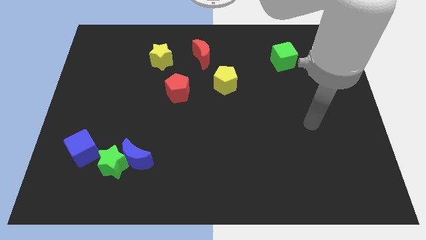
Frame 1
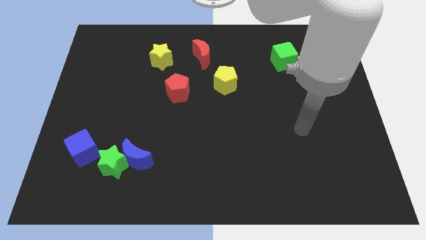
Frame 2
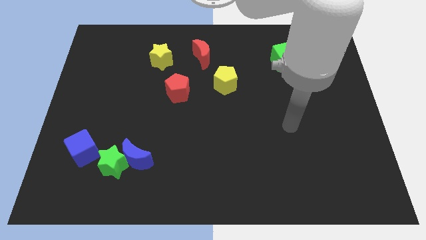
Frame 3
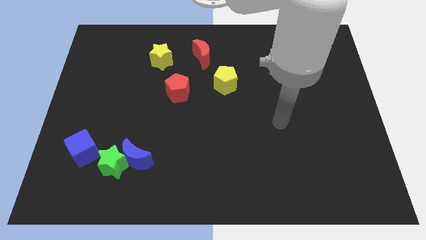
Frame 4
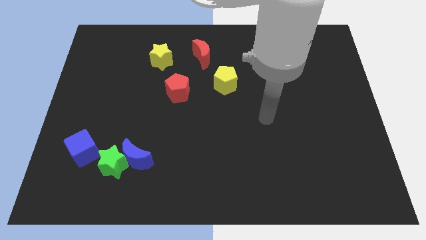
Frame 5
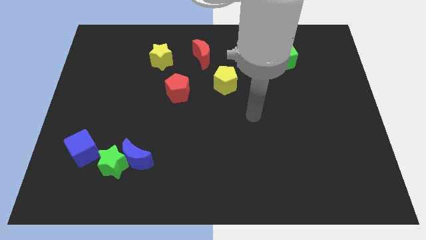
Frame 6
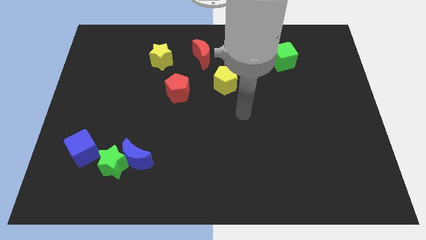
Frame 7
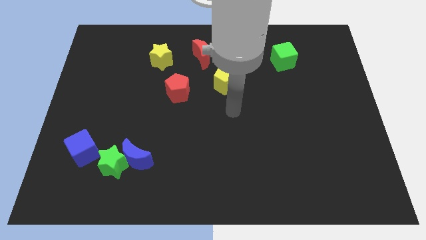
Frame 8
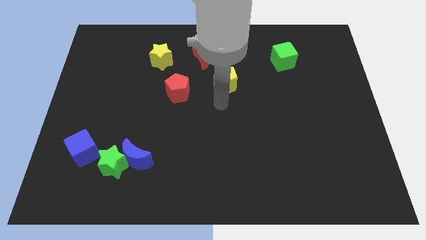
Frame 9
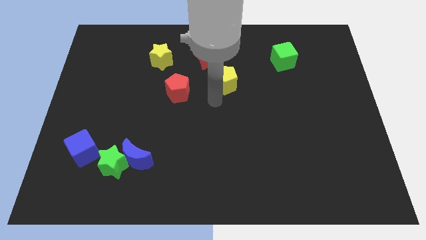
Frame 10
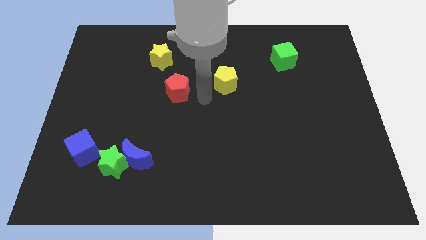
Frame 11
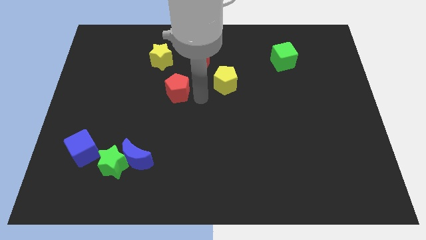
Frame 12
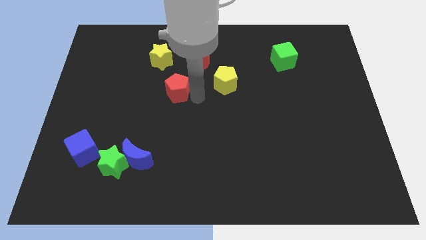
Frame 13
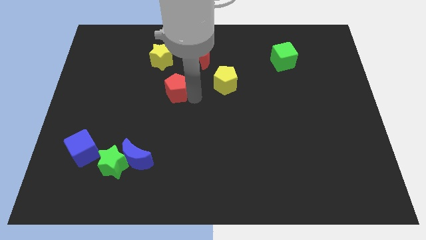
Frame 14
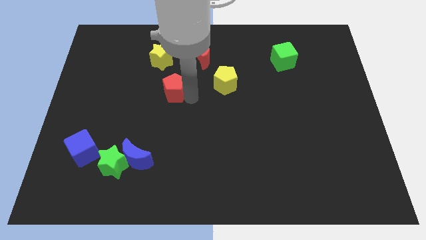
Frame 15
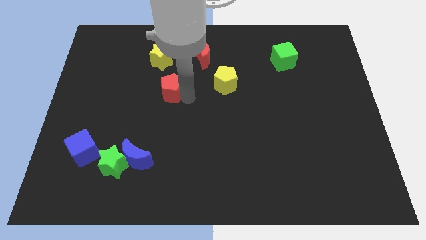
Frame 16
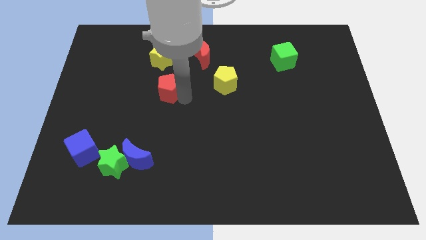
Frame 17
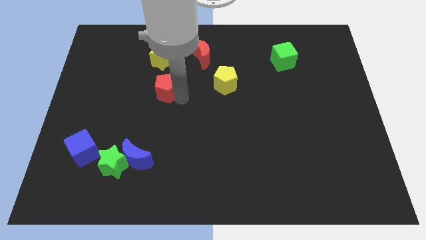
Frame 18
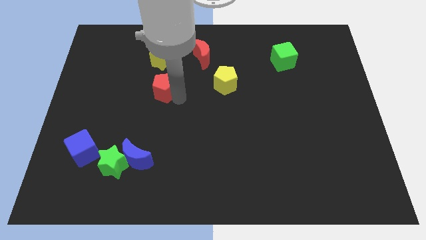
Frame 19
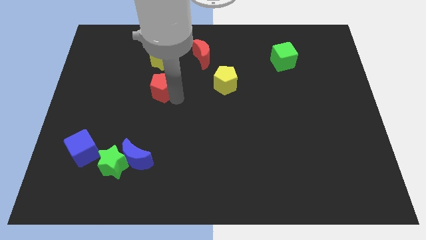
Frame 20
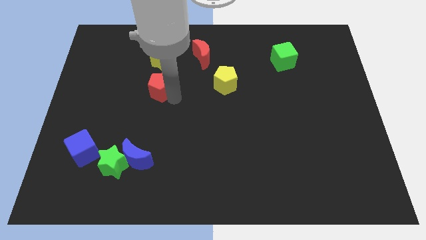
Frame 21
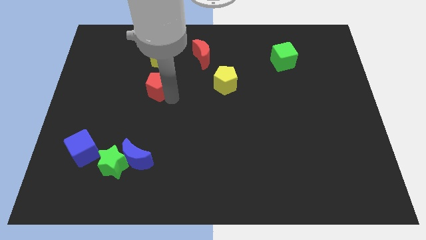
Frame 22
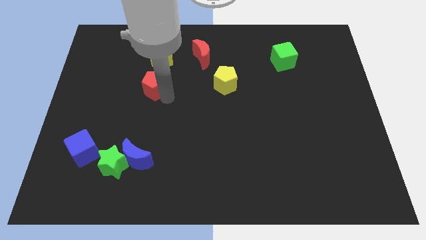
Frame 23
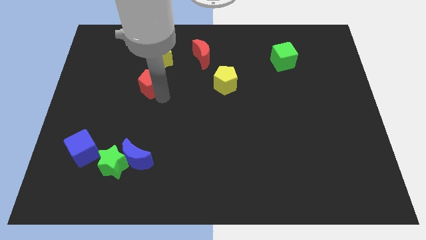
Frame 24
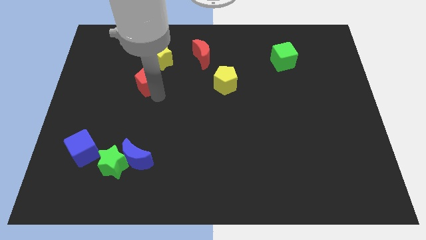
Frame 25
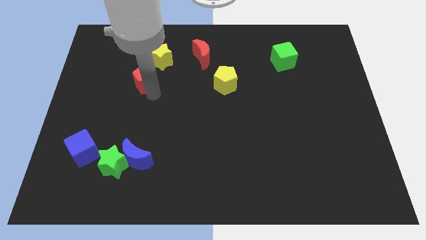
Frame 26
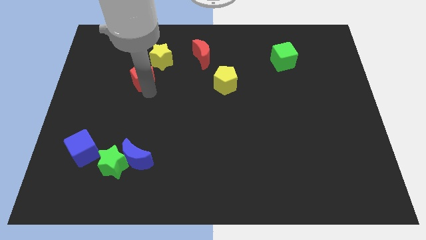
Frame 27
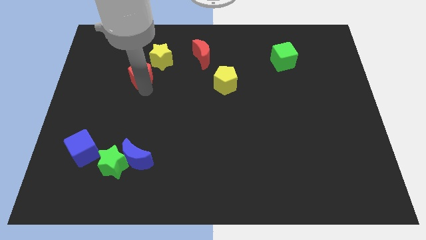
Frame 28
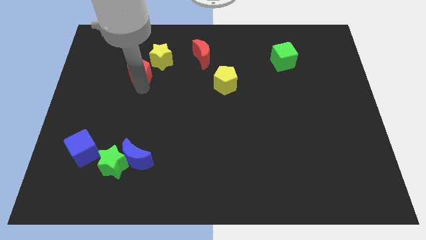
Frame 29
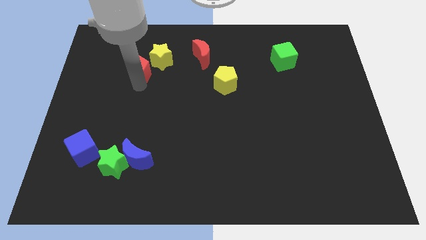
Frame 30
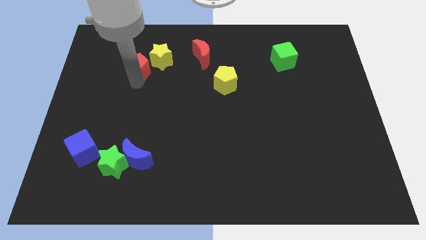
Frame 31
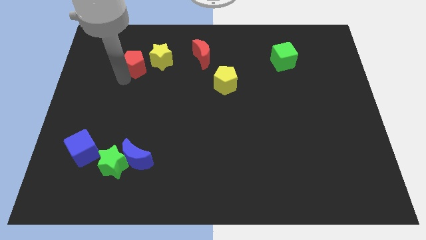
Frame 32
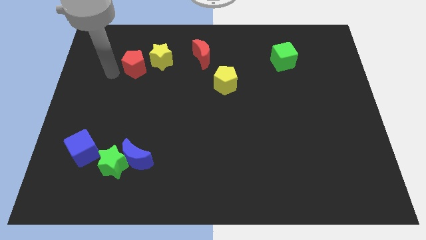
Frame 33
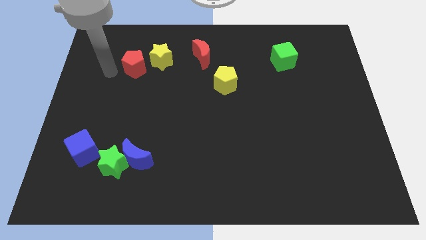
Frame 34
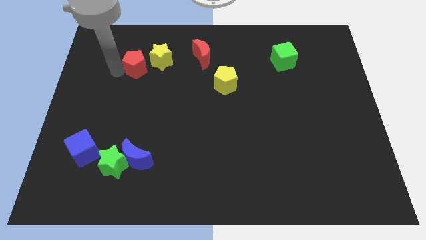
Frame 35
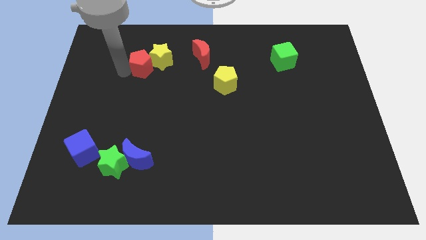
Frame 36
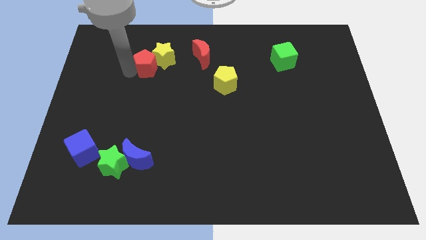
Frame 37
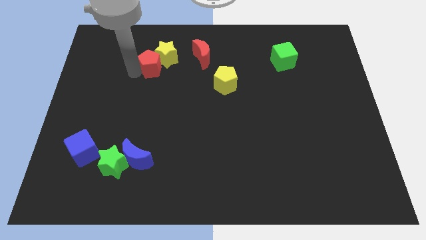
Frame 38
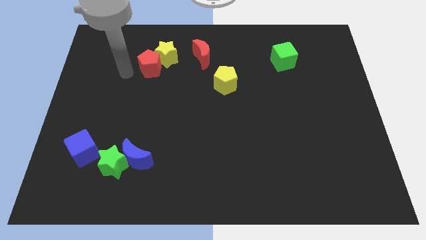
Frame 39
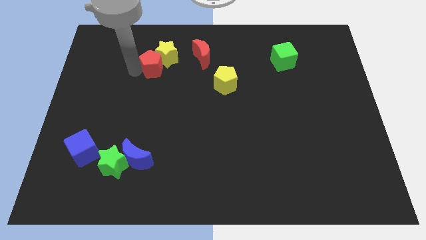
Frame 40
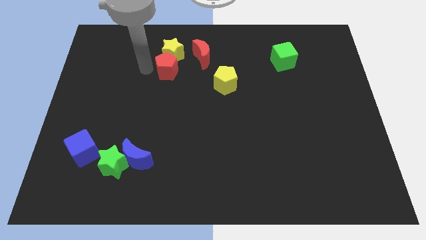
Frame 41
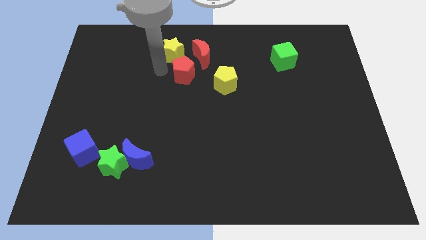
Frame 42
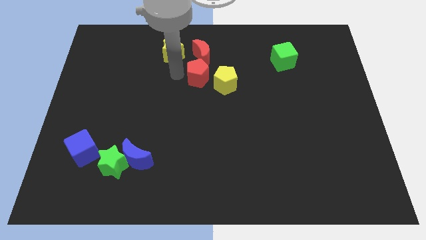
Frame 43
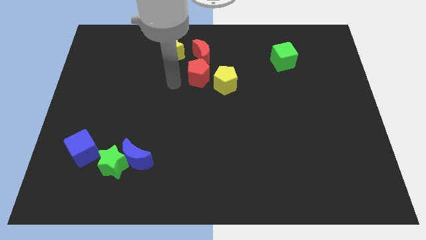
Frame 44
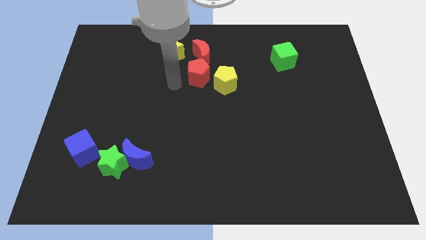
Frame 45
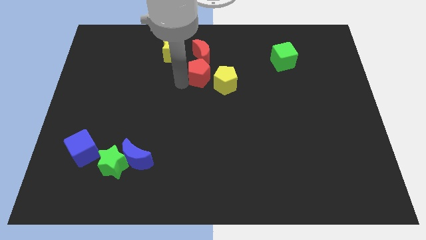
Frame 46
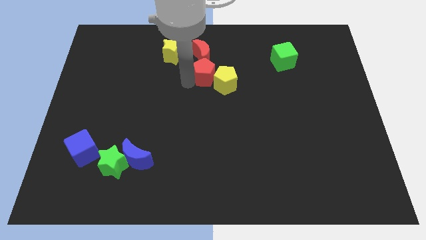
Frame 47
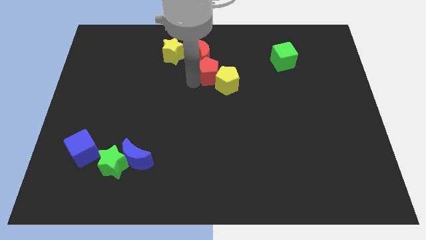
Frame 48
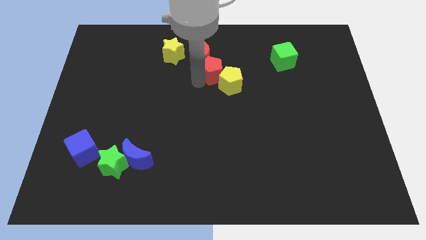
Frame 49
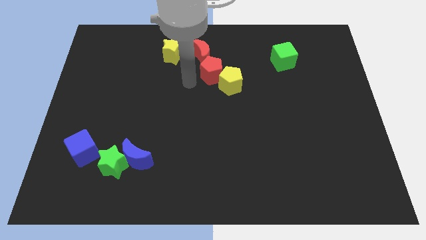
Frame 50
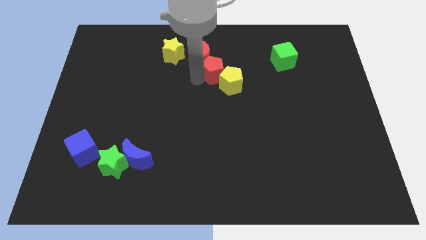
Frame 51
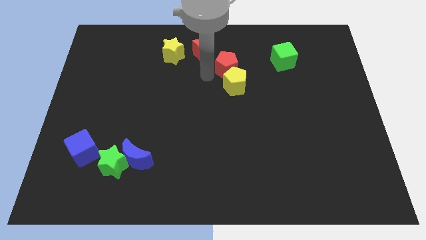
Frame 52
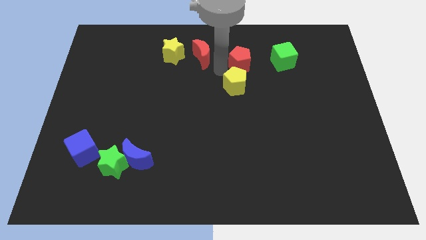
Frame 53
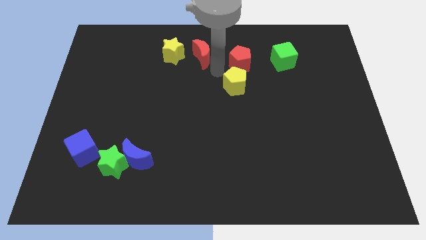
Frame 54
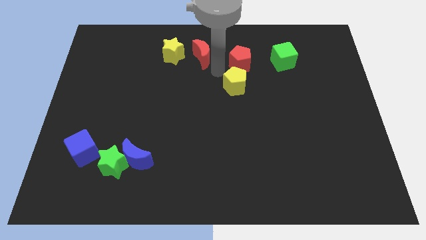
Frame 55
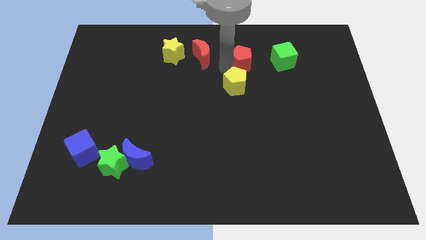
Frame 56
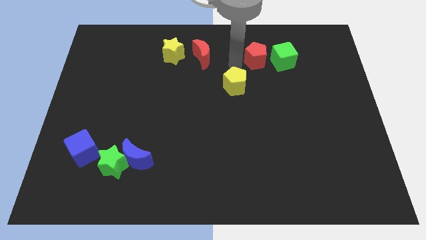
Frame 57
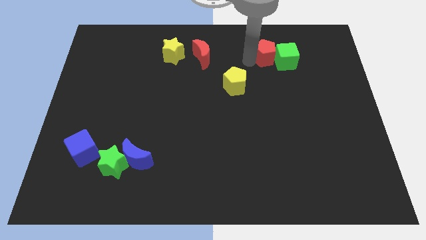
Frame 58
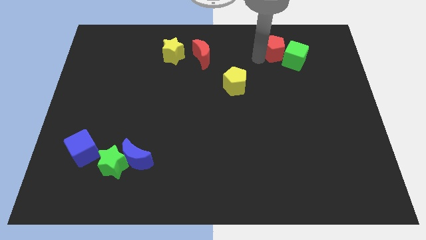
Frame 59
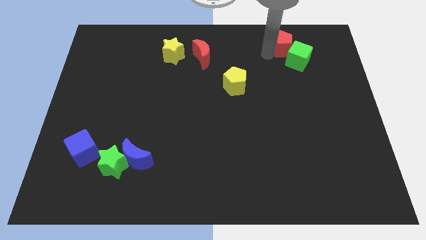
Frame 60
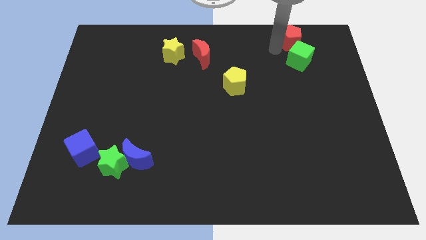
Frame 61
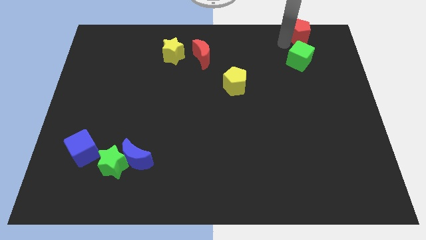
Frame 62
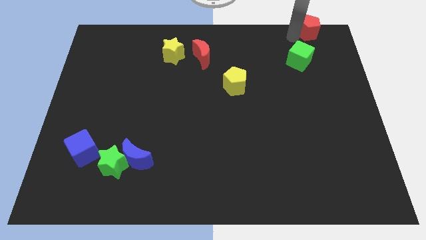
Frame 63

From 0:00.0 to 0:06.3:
push the red pentagon to the top right of the board
